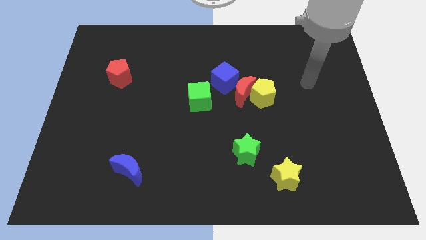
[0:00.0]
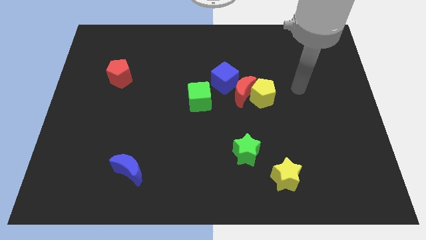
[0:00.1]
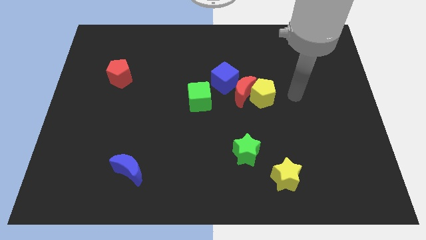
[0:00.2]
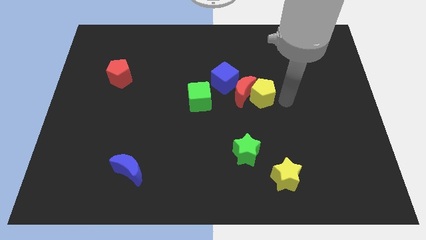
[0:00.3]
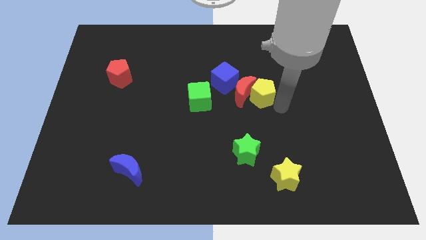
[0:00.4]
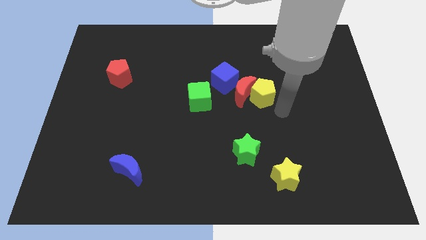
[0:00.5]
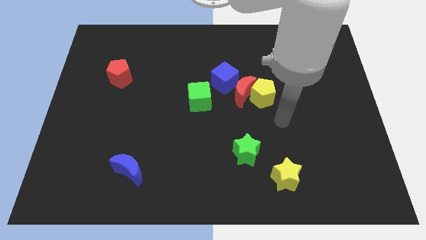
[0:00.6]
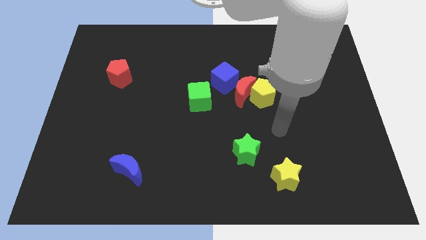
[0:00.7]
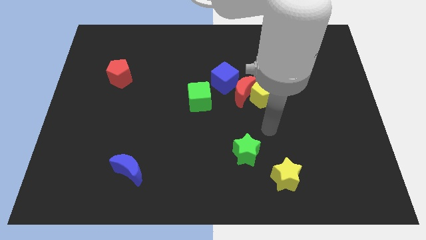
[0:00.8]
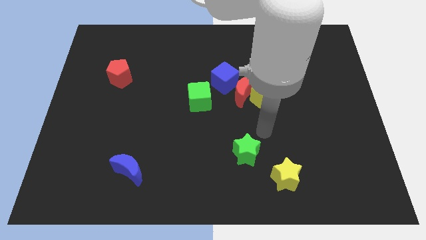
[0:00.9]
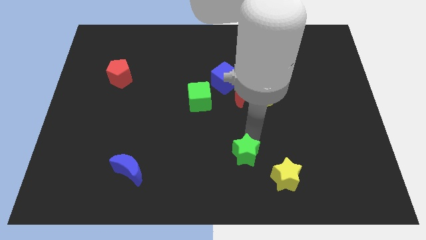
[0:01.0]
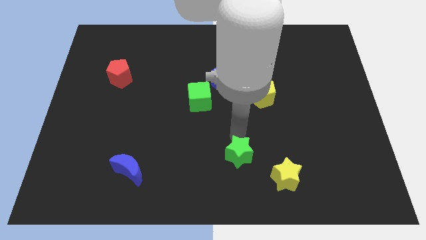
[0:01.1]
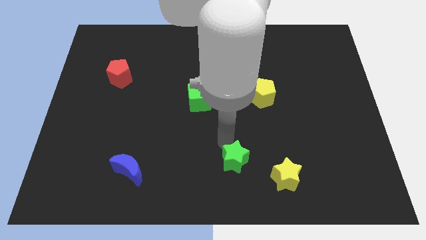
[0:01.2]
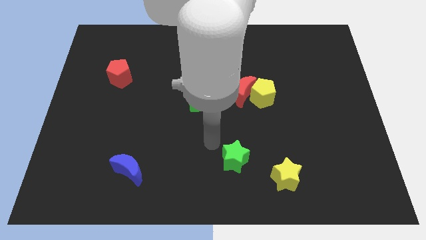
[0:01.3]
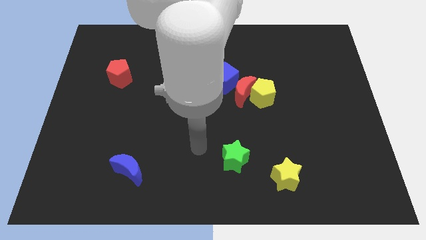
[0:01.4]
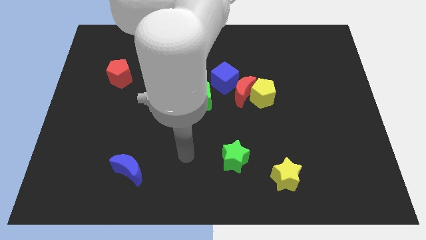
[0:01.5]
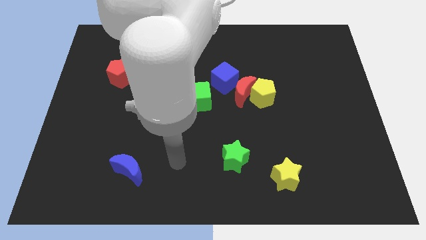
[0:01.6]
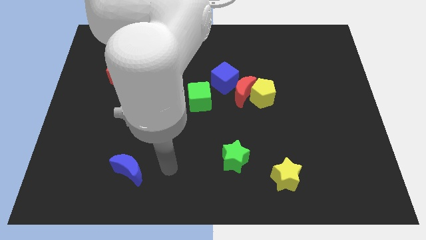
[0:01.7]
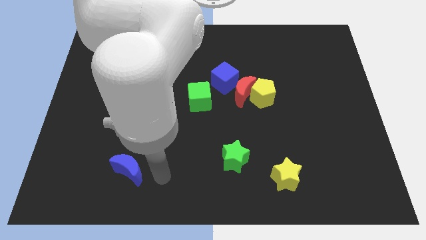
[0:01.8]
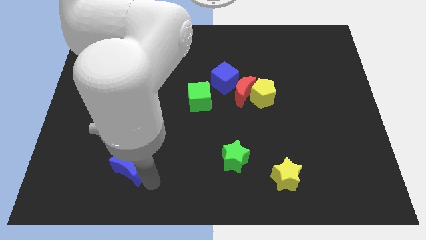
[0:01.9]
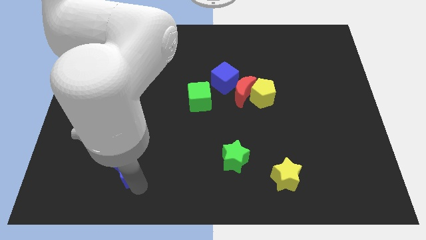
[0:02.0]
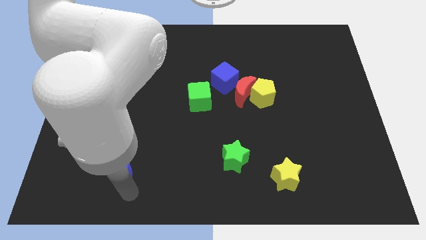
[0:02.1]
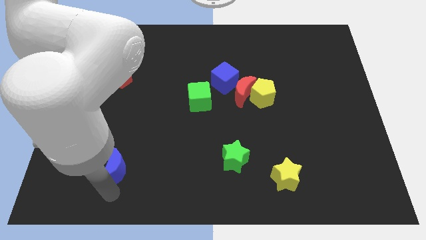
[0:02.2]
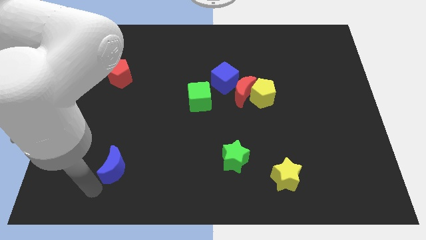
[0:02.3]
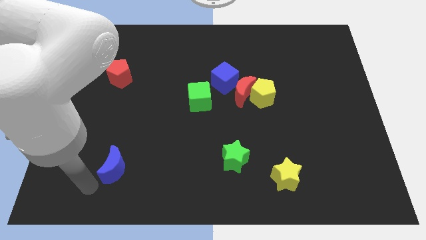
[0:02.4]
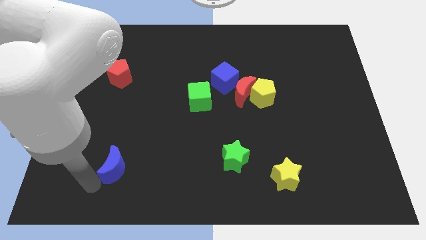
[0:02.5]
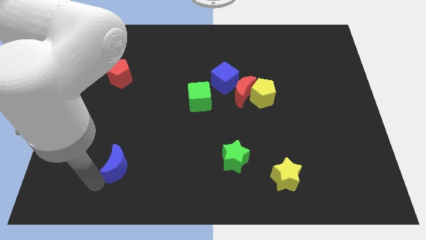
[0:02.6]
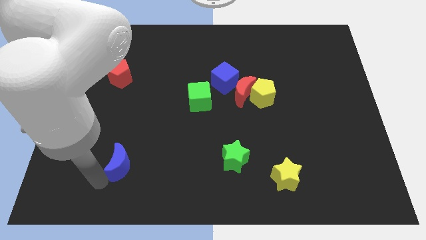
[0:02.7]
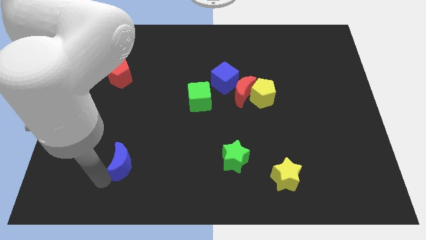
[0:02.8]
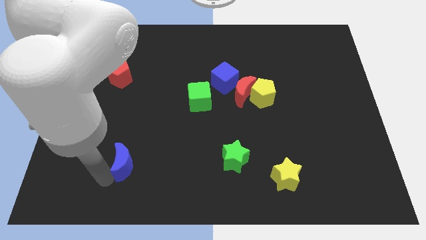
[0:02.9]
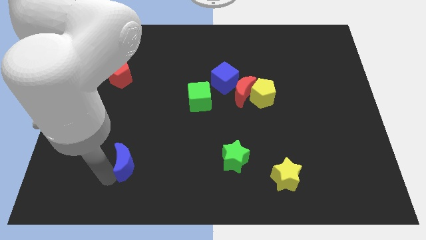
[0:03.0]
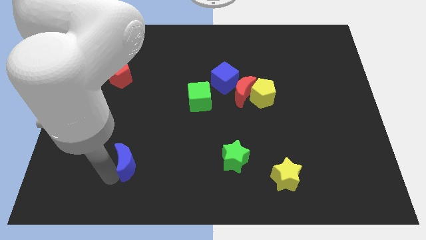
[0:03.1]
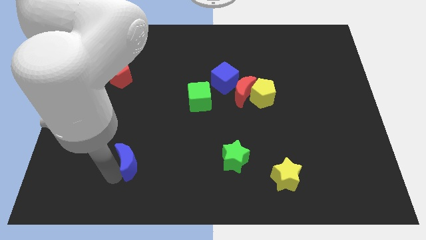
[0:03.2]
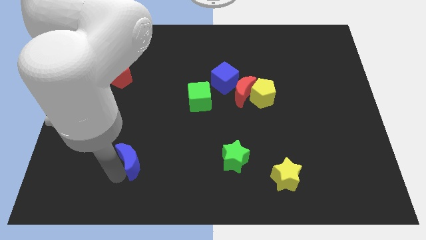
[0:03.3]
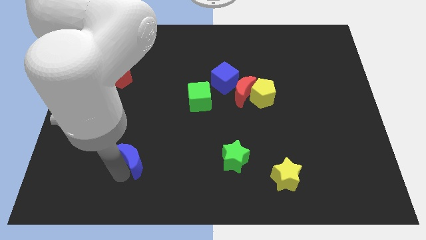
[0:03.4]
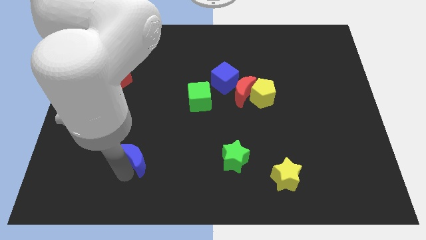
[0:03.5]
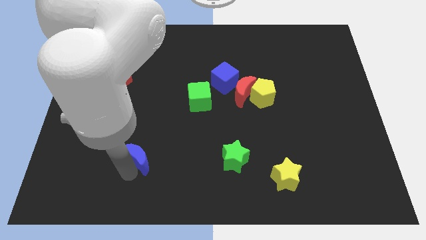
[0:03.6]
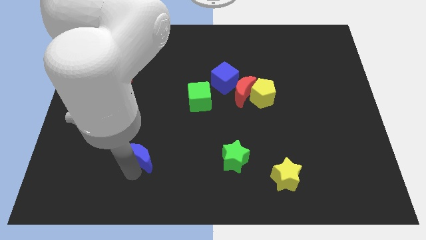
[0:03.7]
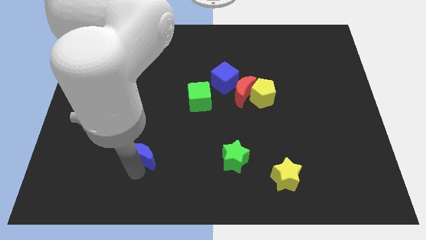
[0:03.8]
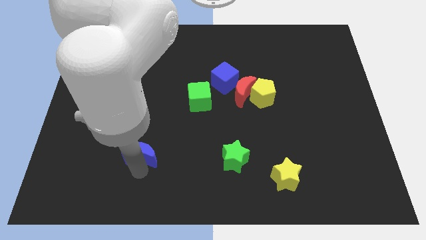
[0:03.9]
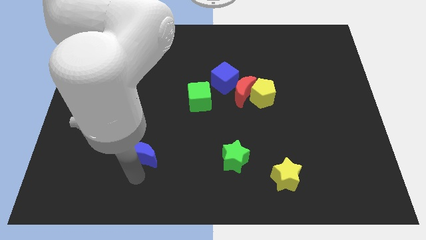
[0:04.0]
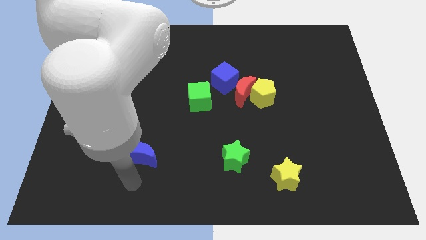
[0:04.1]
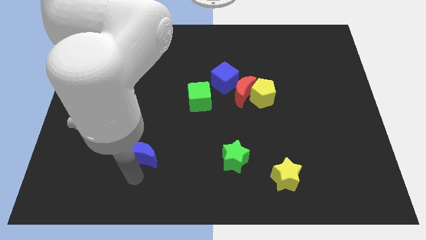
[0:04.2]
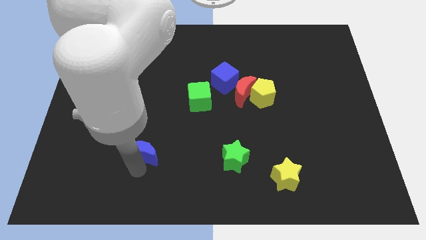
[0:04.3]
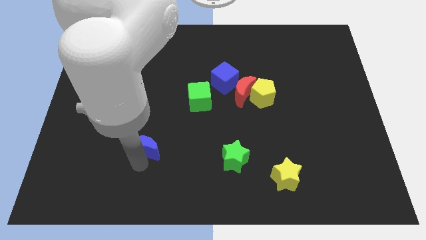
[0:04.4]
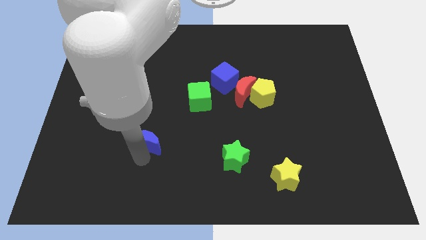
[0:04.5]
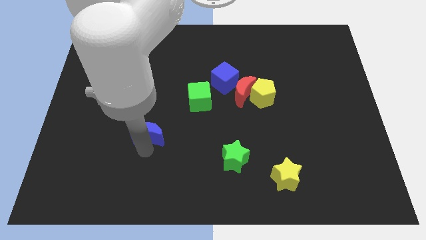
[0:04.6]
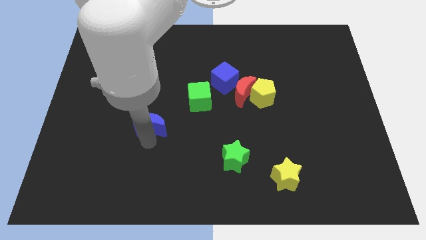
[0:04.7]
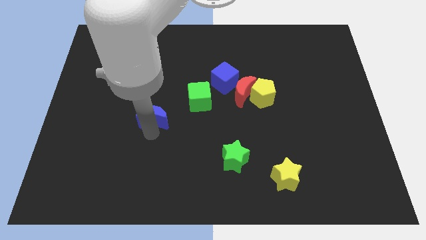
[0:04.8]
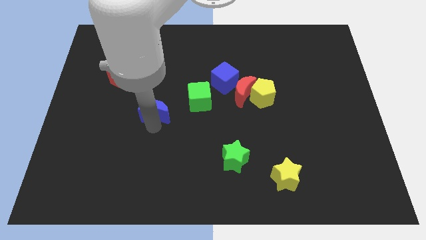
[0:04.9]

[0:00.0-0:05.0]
move the blue moon to the left of the green cube

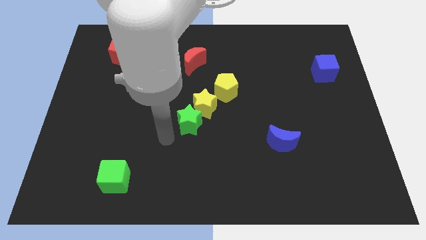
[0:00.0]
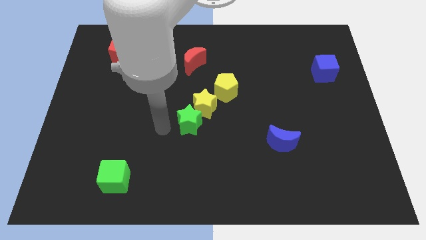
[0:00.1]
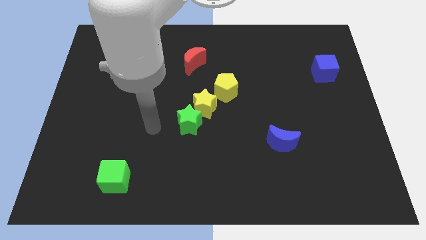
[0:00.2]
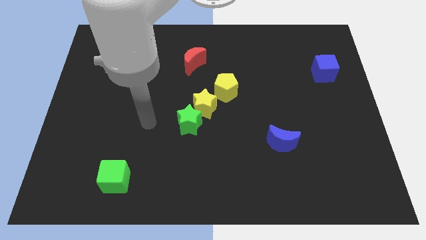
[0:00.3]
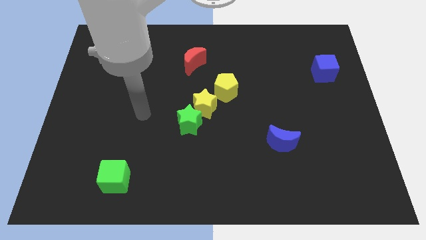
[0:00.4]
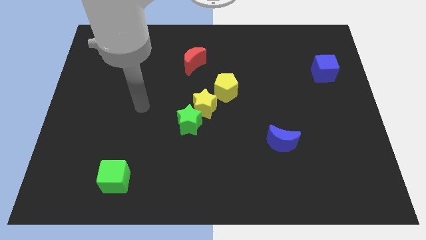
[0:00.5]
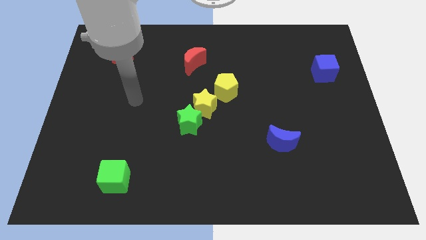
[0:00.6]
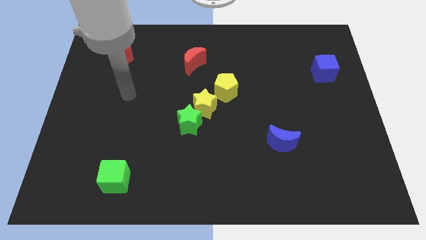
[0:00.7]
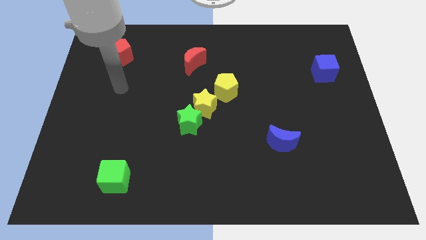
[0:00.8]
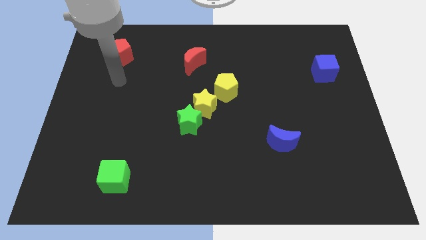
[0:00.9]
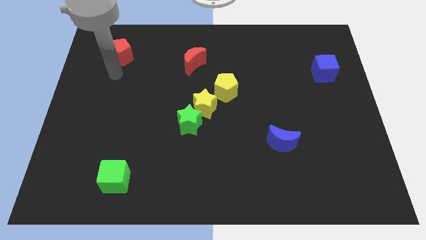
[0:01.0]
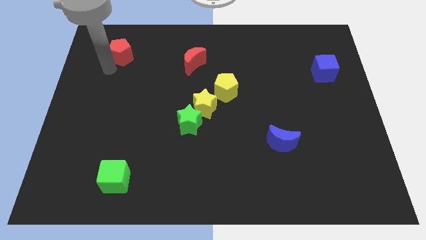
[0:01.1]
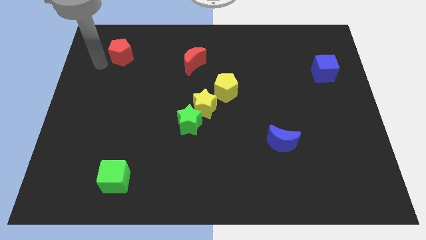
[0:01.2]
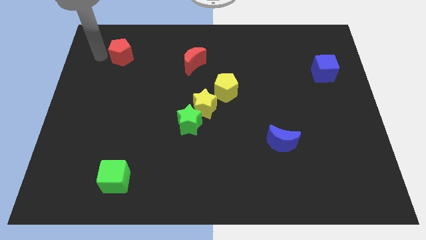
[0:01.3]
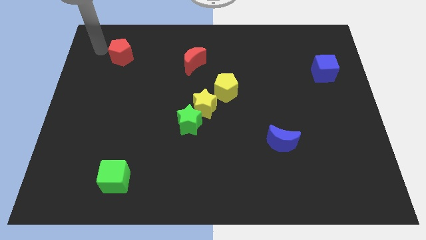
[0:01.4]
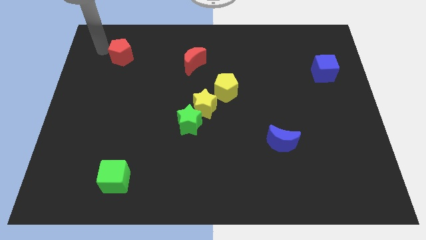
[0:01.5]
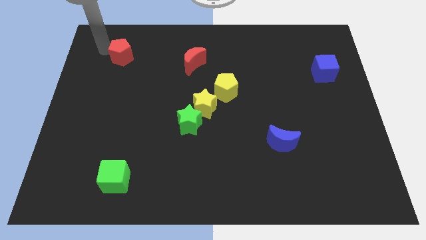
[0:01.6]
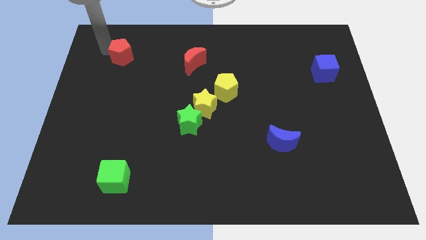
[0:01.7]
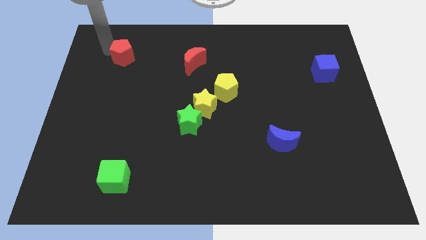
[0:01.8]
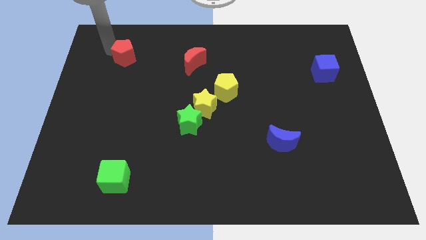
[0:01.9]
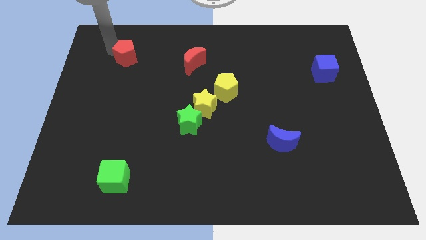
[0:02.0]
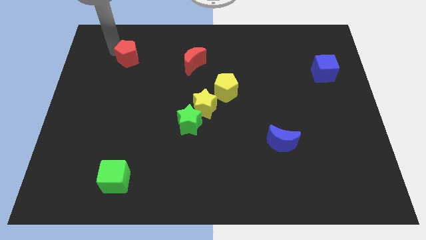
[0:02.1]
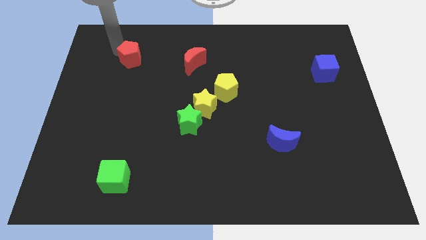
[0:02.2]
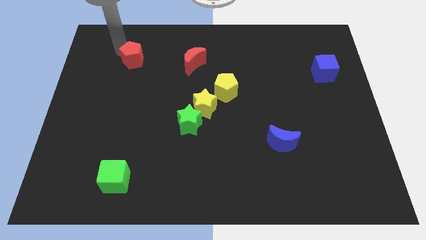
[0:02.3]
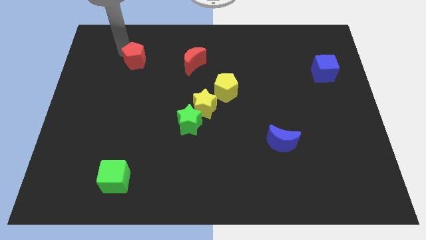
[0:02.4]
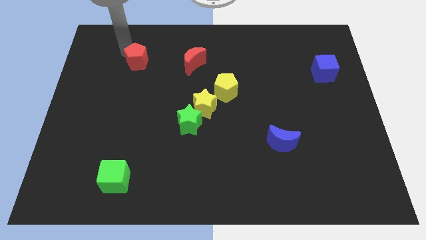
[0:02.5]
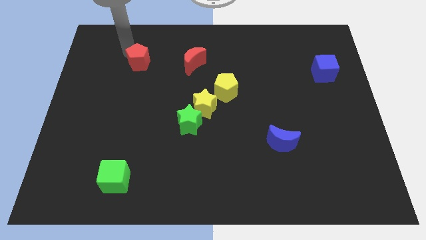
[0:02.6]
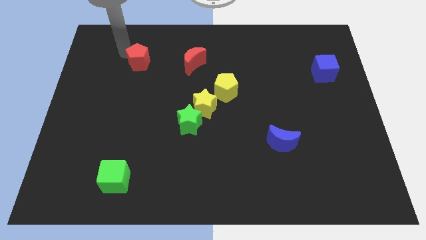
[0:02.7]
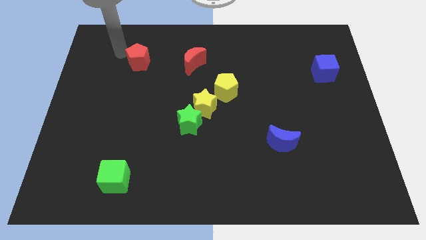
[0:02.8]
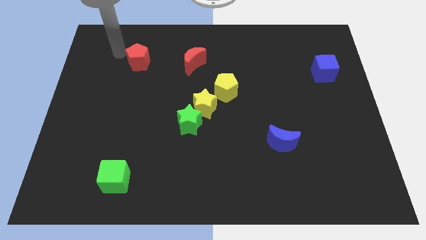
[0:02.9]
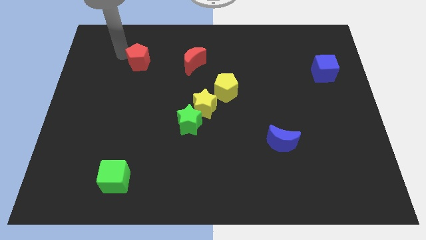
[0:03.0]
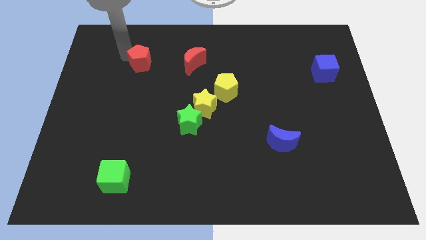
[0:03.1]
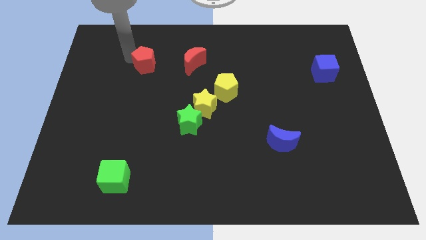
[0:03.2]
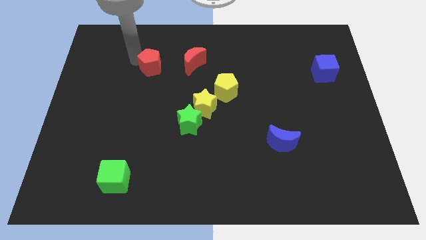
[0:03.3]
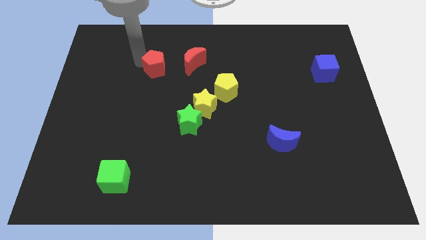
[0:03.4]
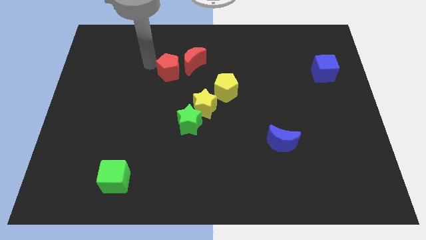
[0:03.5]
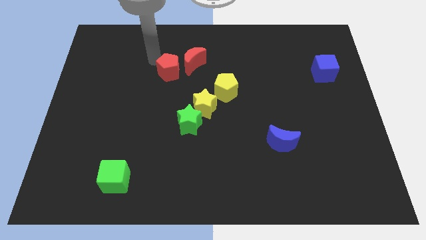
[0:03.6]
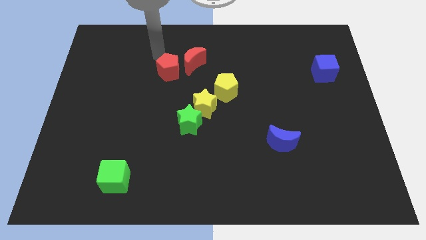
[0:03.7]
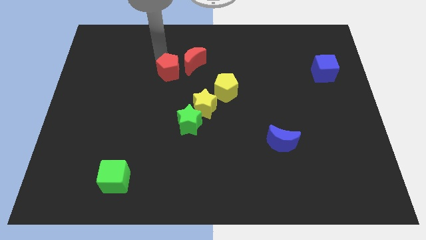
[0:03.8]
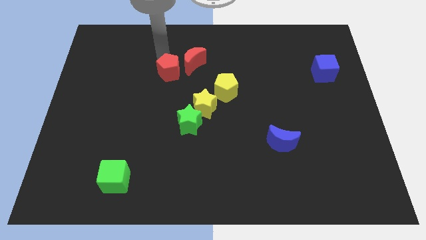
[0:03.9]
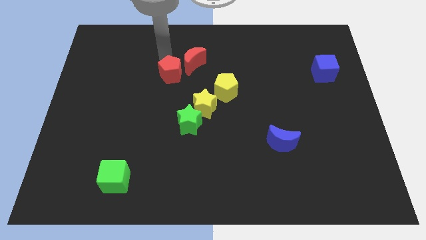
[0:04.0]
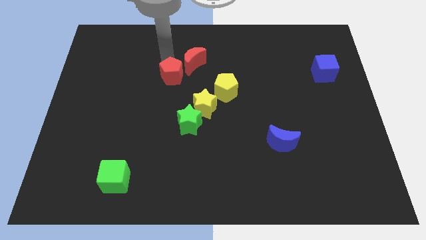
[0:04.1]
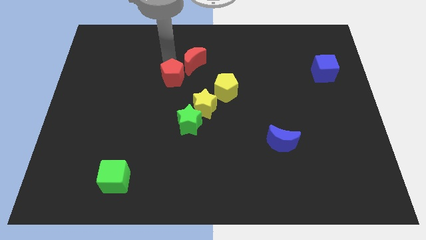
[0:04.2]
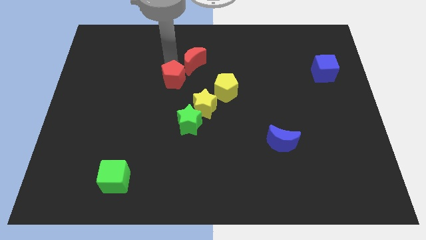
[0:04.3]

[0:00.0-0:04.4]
slide the red pentagon to the left of the yellow pentagon
